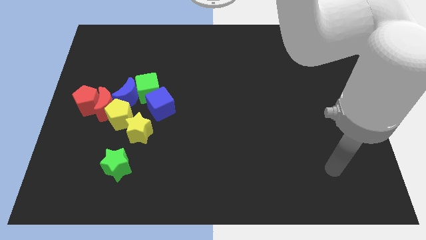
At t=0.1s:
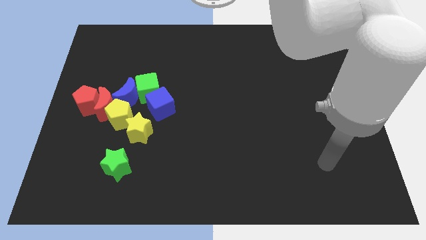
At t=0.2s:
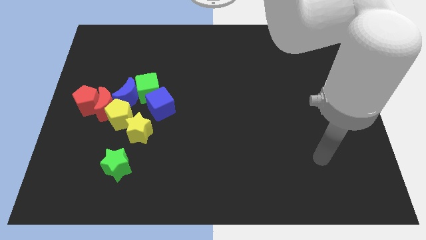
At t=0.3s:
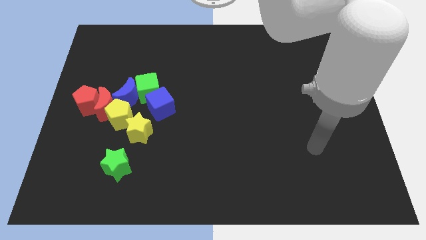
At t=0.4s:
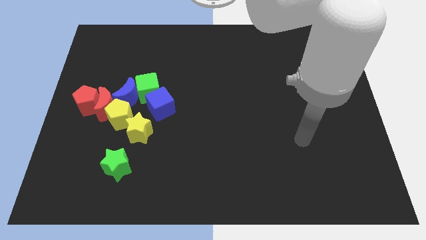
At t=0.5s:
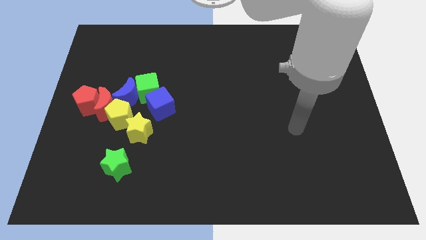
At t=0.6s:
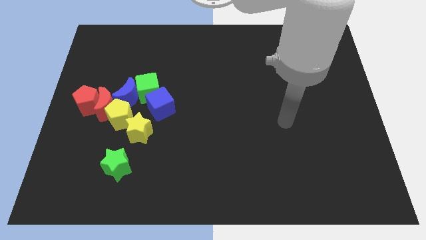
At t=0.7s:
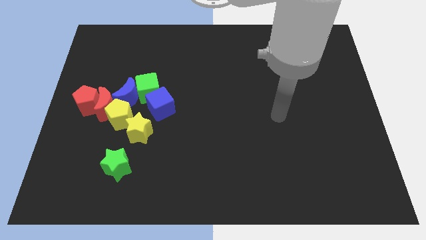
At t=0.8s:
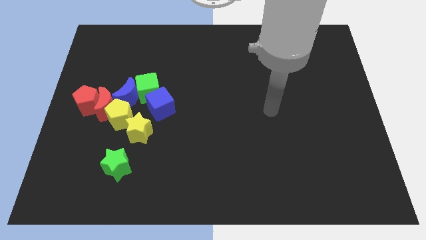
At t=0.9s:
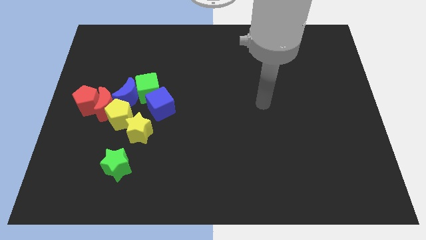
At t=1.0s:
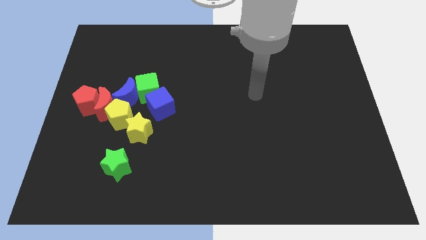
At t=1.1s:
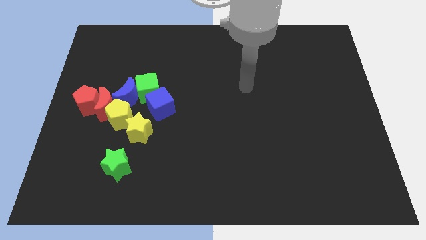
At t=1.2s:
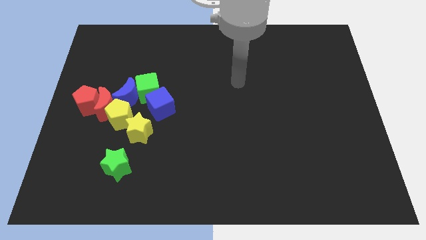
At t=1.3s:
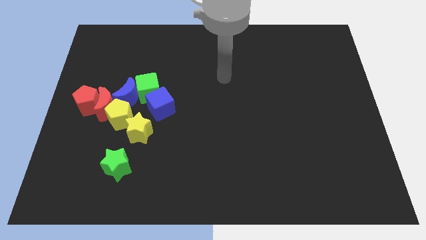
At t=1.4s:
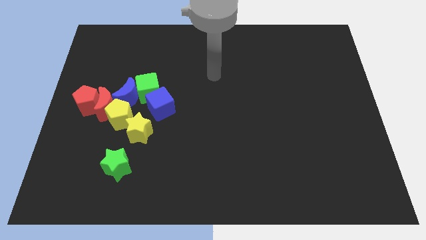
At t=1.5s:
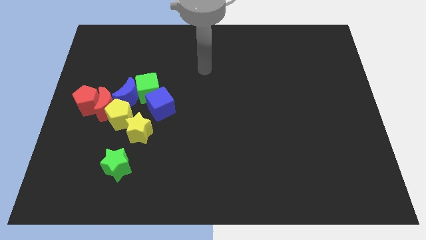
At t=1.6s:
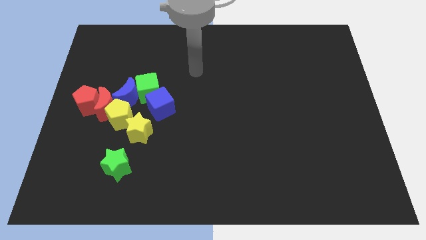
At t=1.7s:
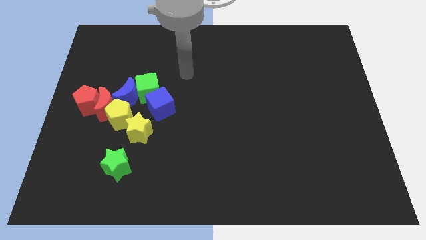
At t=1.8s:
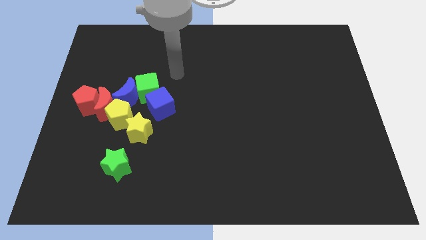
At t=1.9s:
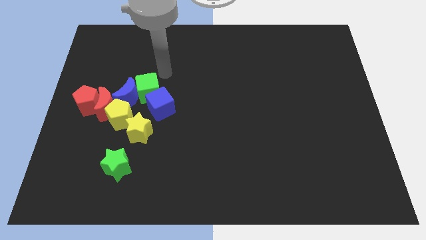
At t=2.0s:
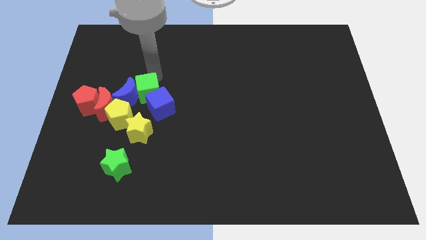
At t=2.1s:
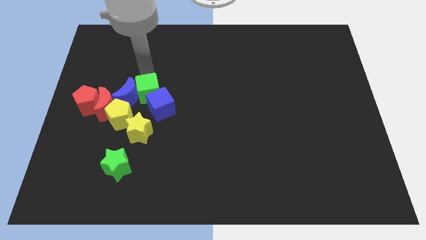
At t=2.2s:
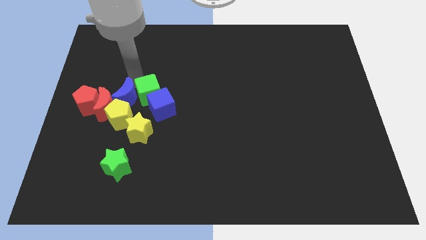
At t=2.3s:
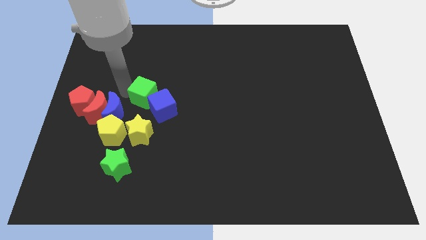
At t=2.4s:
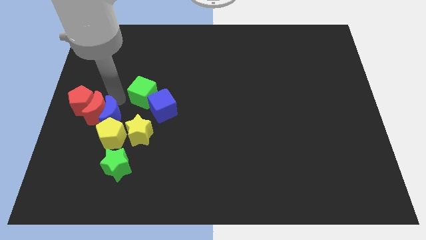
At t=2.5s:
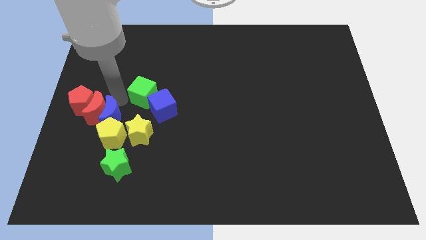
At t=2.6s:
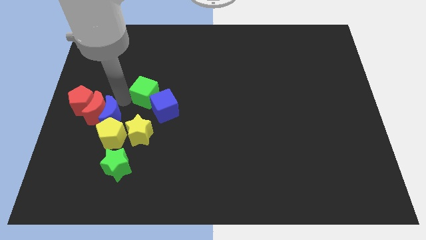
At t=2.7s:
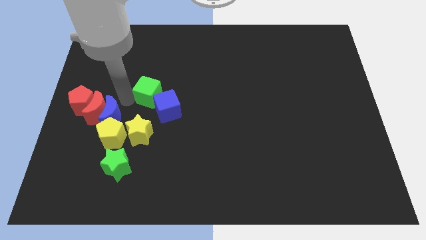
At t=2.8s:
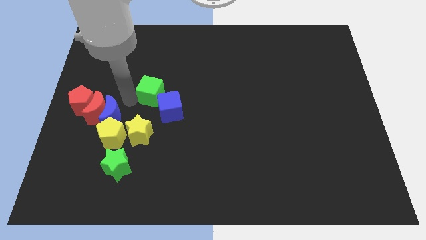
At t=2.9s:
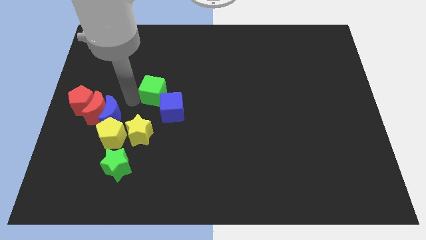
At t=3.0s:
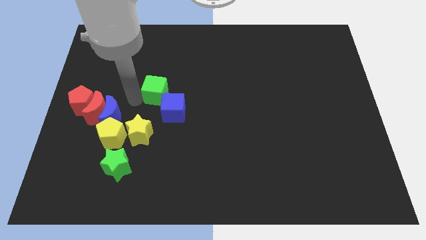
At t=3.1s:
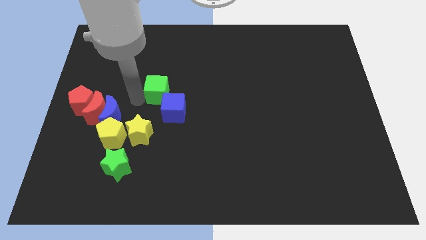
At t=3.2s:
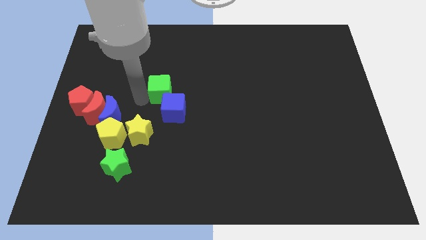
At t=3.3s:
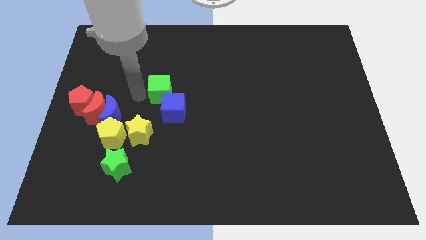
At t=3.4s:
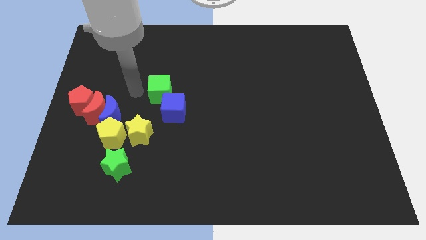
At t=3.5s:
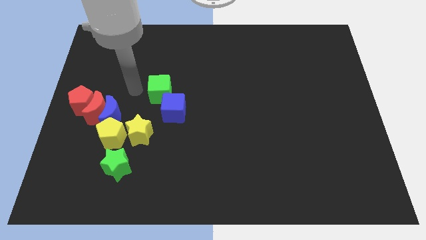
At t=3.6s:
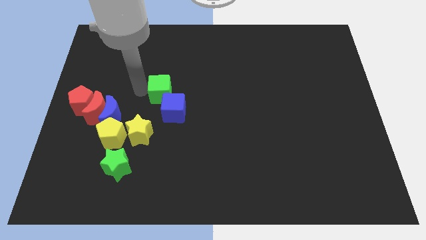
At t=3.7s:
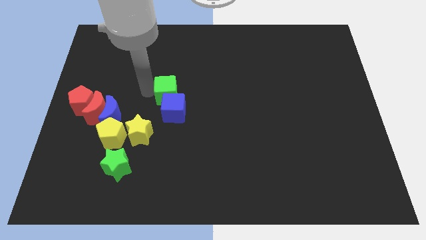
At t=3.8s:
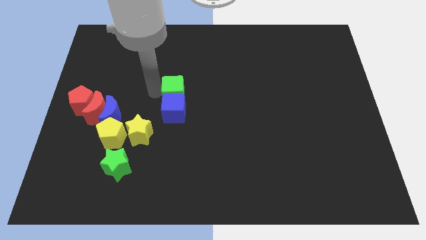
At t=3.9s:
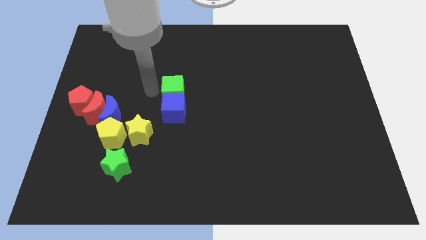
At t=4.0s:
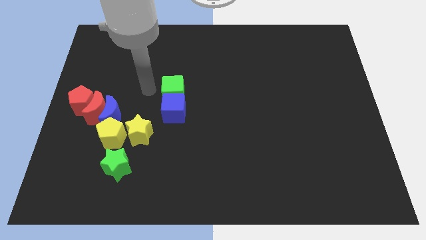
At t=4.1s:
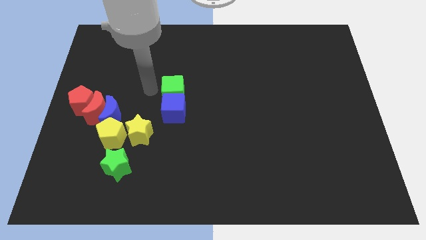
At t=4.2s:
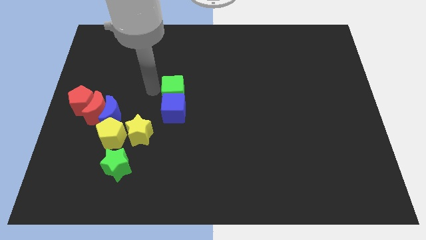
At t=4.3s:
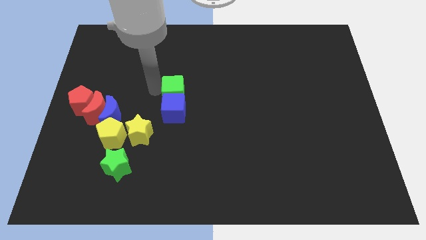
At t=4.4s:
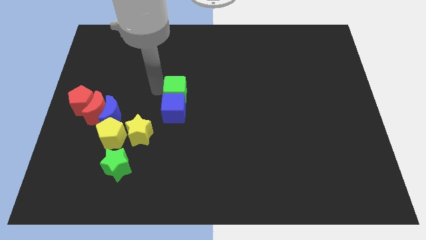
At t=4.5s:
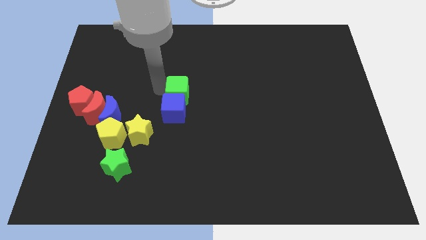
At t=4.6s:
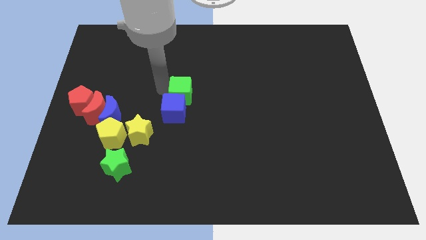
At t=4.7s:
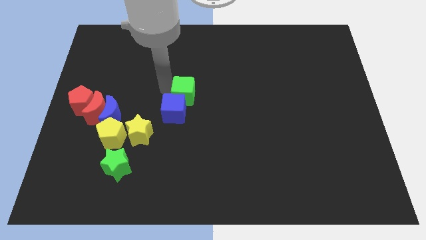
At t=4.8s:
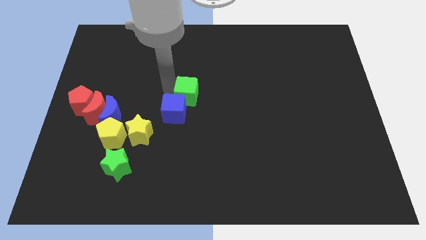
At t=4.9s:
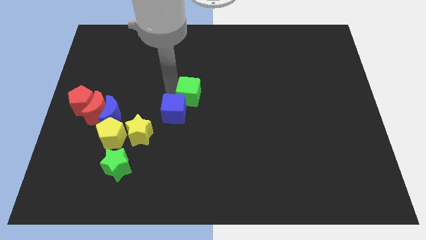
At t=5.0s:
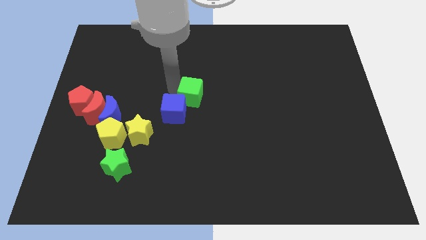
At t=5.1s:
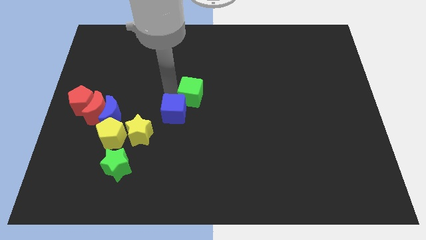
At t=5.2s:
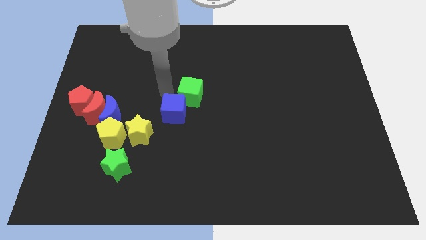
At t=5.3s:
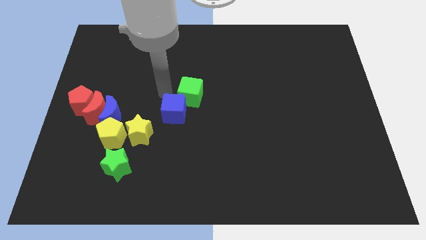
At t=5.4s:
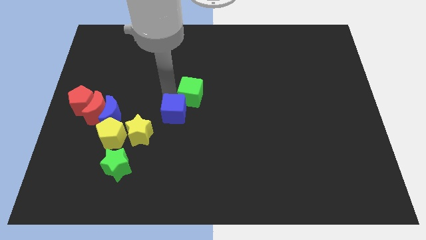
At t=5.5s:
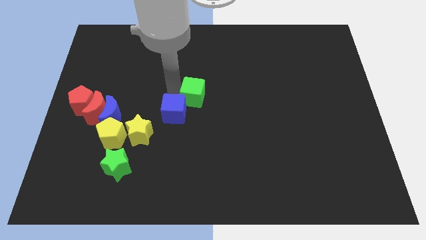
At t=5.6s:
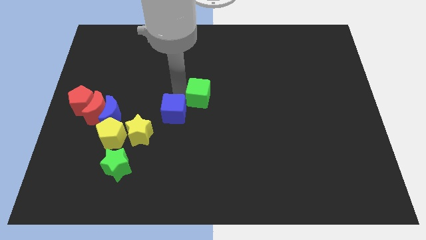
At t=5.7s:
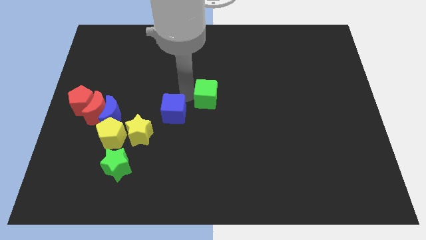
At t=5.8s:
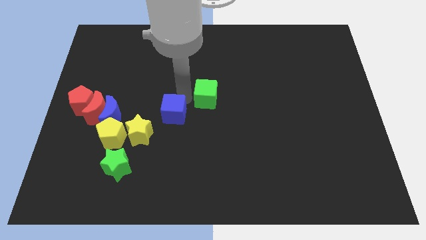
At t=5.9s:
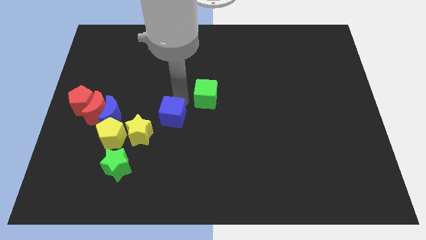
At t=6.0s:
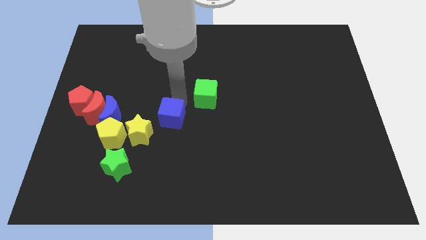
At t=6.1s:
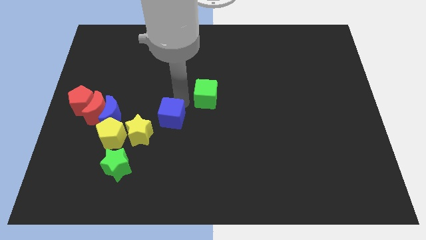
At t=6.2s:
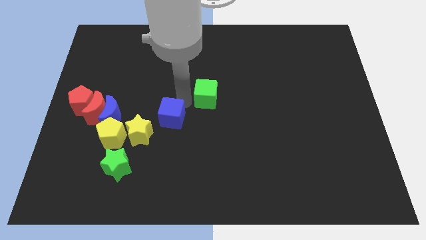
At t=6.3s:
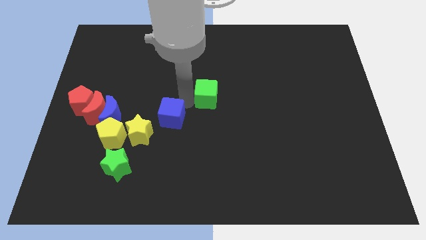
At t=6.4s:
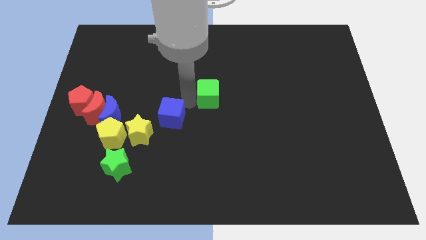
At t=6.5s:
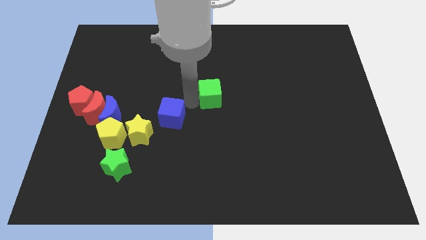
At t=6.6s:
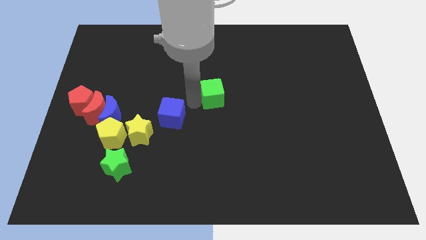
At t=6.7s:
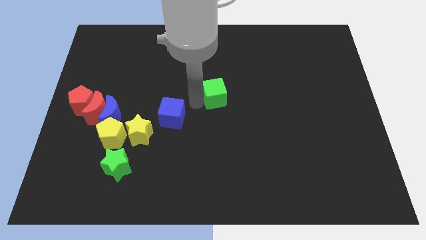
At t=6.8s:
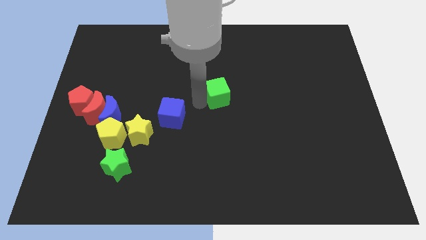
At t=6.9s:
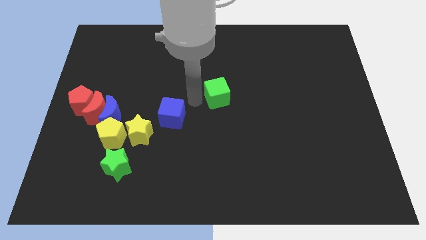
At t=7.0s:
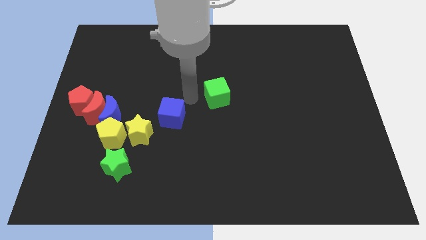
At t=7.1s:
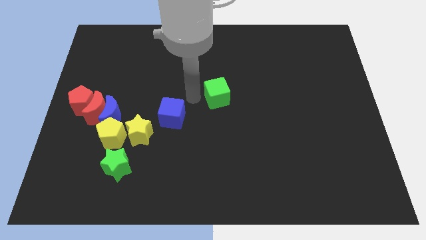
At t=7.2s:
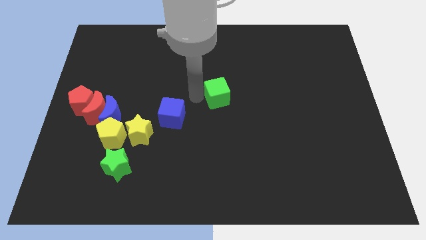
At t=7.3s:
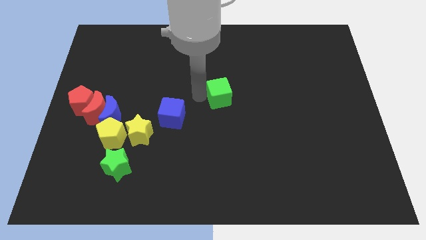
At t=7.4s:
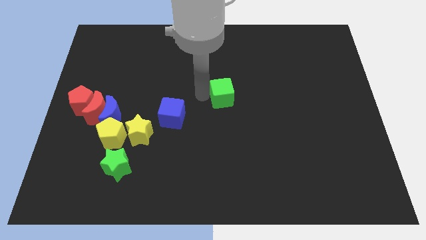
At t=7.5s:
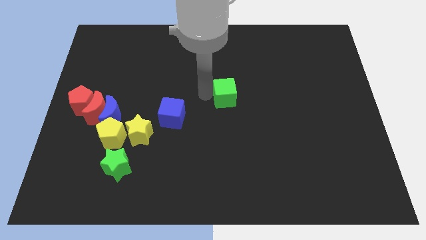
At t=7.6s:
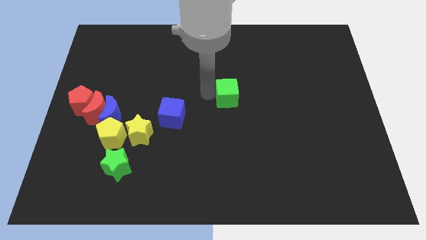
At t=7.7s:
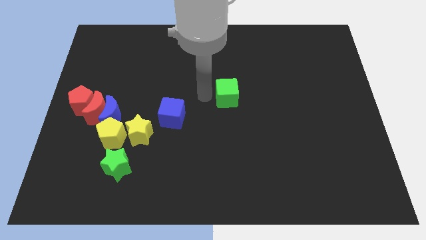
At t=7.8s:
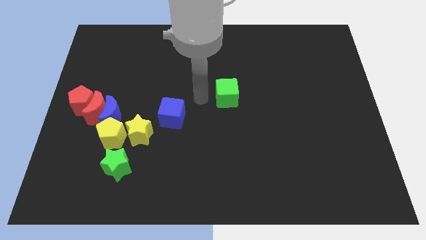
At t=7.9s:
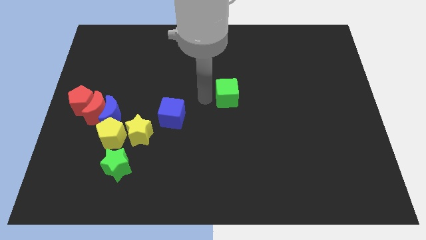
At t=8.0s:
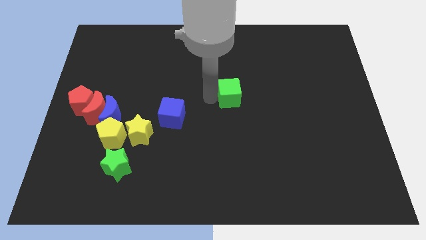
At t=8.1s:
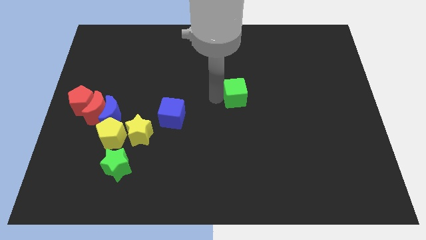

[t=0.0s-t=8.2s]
slide the green cube to the right
